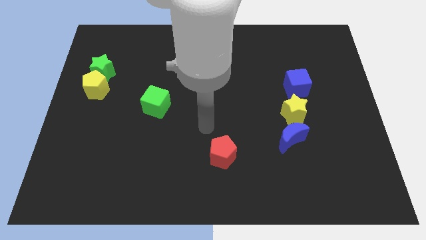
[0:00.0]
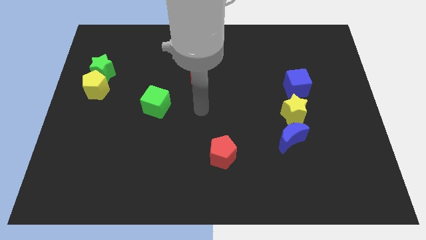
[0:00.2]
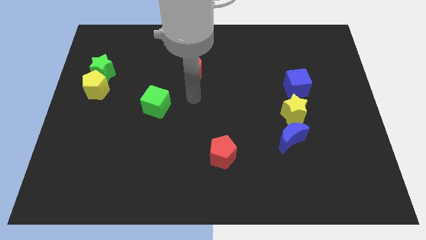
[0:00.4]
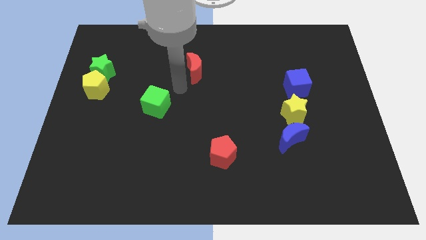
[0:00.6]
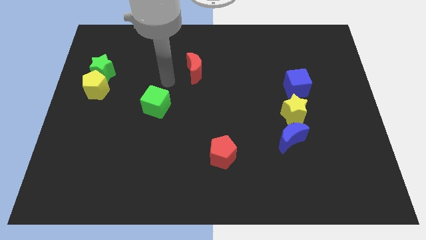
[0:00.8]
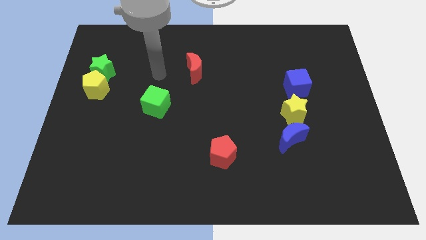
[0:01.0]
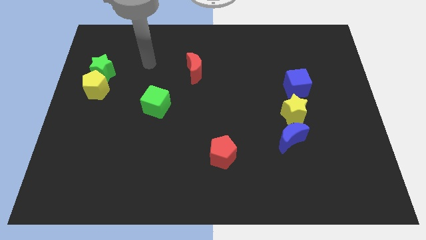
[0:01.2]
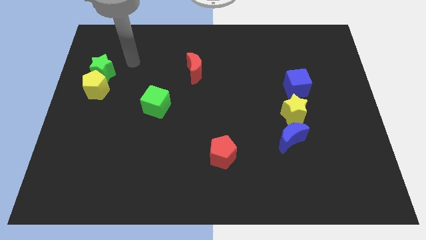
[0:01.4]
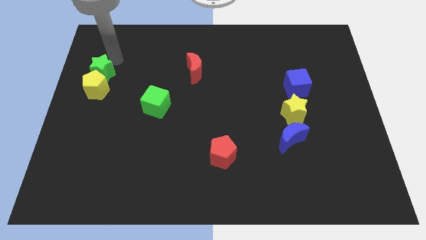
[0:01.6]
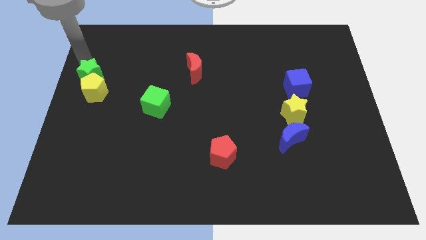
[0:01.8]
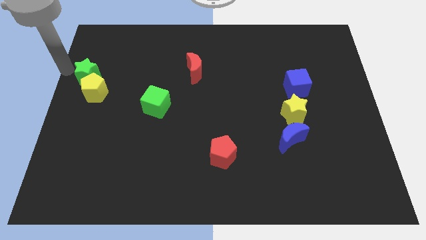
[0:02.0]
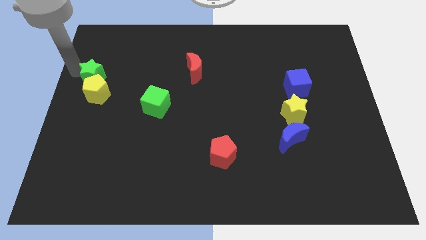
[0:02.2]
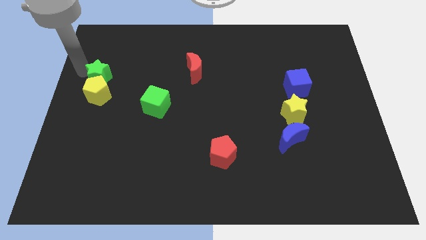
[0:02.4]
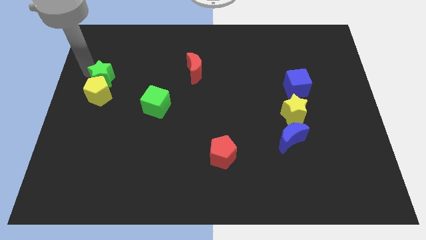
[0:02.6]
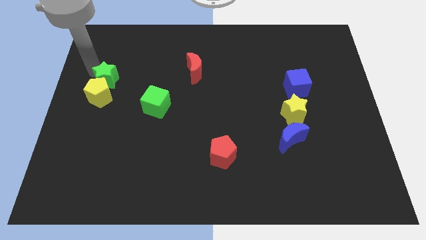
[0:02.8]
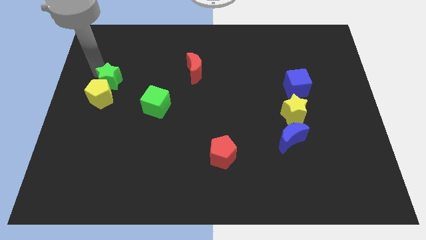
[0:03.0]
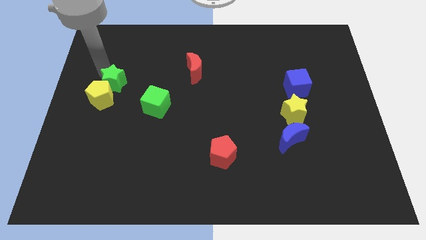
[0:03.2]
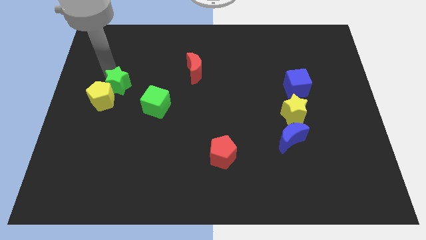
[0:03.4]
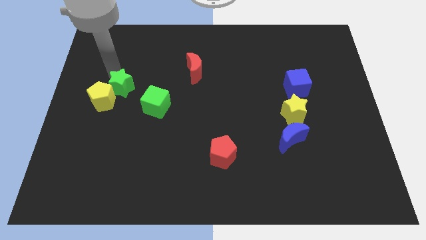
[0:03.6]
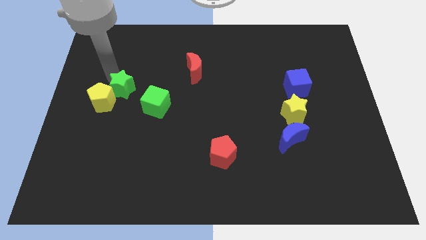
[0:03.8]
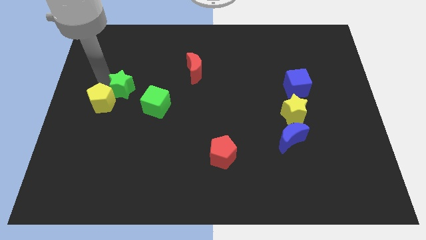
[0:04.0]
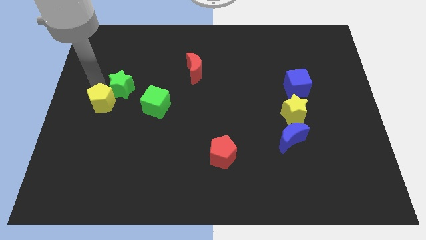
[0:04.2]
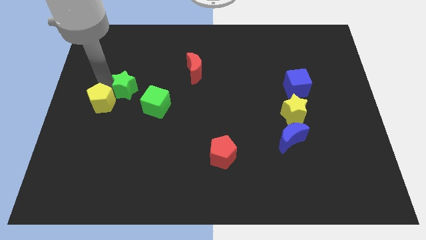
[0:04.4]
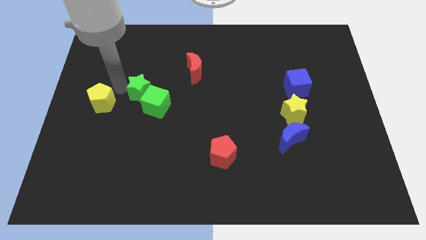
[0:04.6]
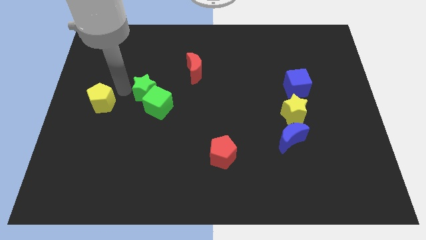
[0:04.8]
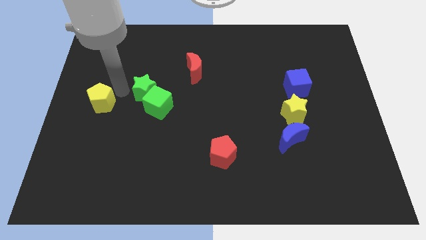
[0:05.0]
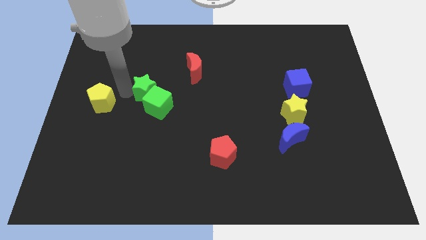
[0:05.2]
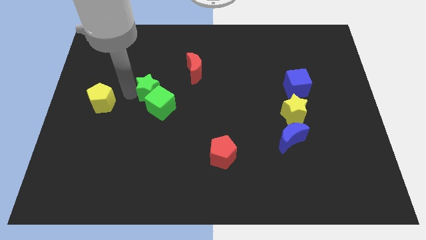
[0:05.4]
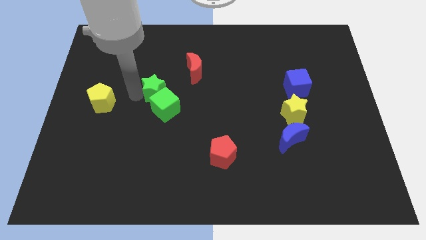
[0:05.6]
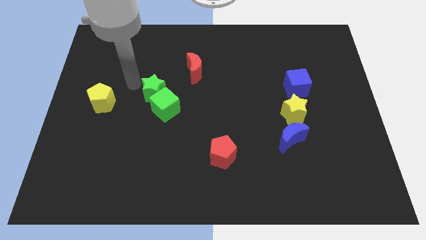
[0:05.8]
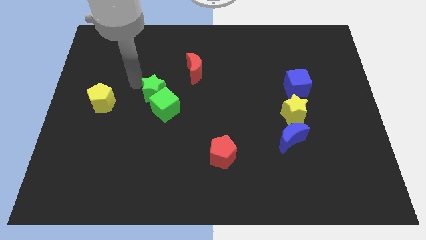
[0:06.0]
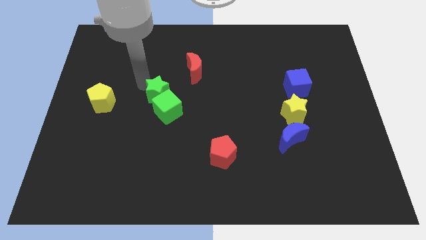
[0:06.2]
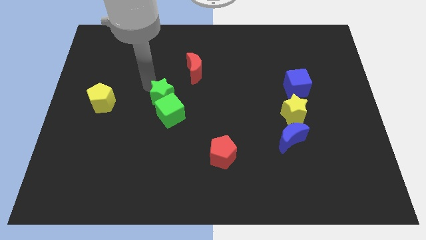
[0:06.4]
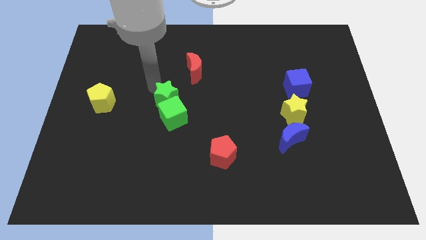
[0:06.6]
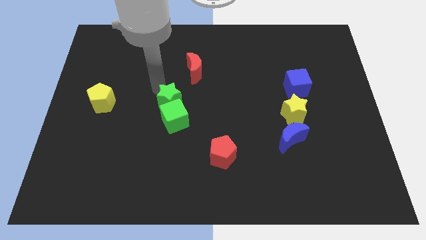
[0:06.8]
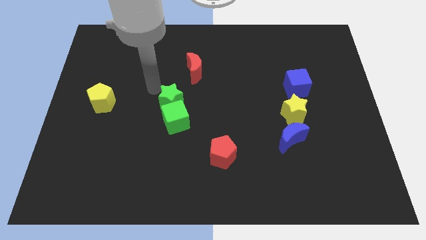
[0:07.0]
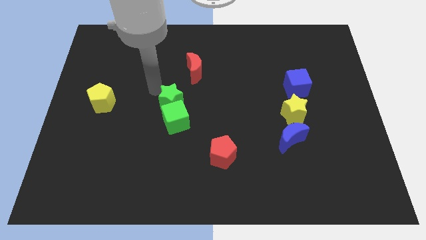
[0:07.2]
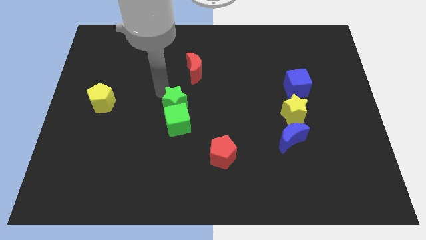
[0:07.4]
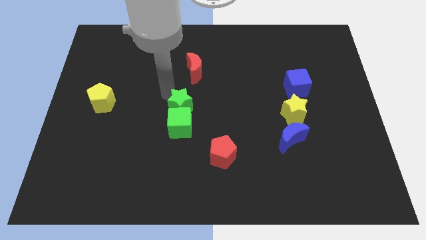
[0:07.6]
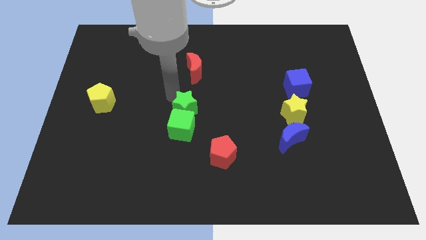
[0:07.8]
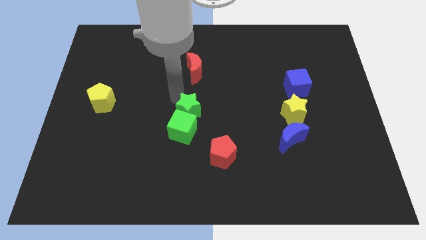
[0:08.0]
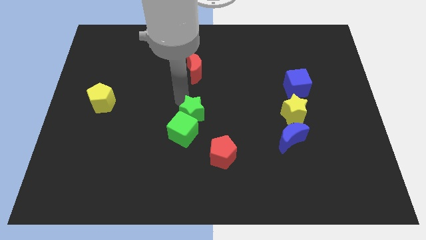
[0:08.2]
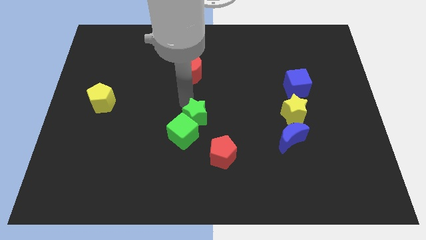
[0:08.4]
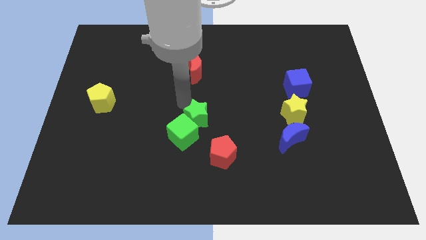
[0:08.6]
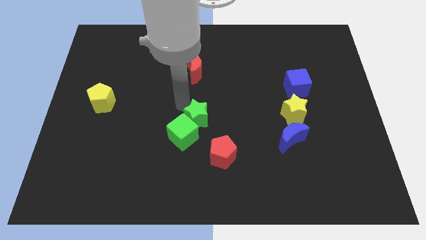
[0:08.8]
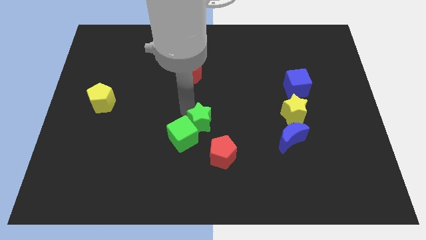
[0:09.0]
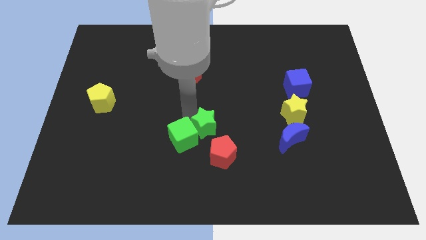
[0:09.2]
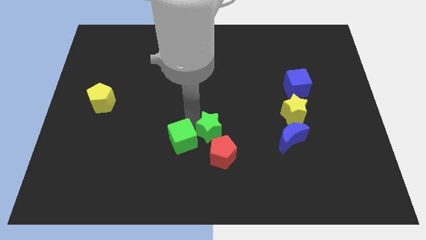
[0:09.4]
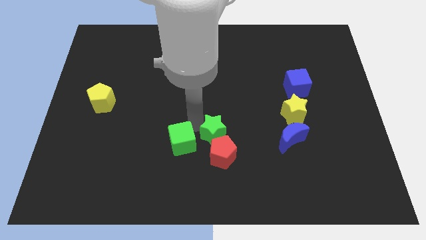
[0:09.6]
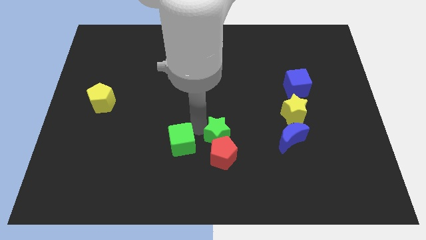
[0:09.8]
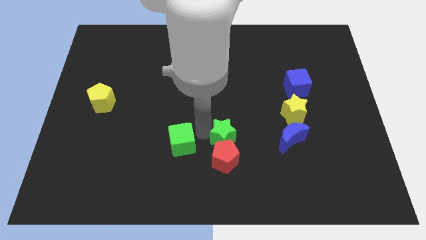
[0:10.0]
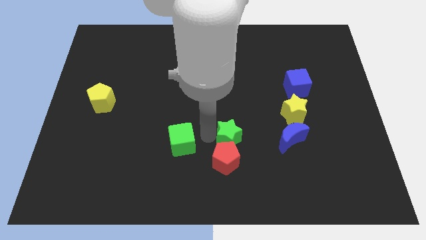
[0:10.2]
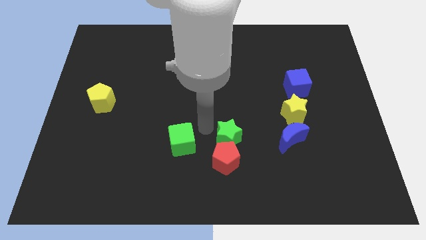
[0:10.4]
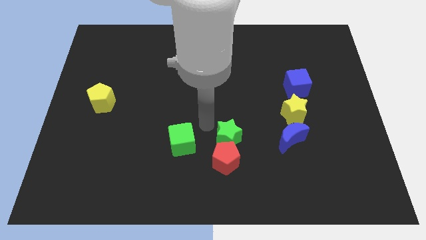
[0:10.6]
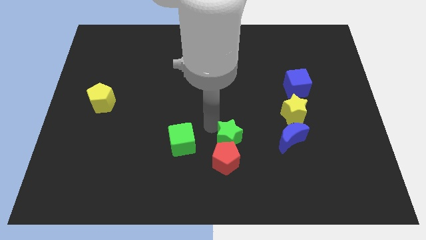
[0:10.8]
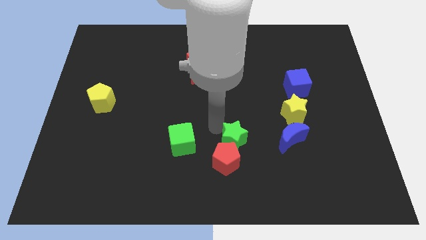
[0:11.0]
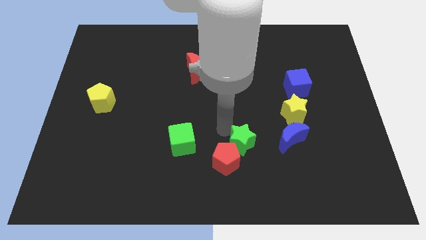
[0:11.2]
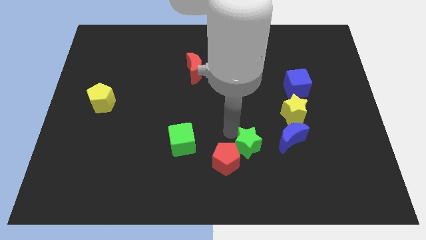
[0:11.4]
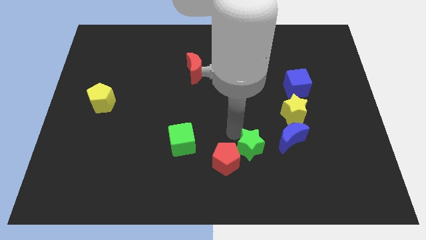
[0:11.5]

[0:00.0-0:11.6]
push the green star to the bottom left of the blue moon

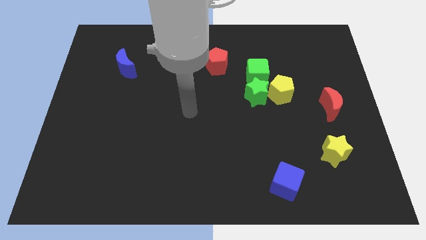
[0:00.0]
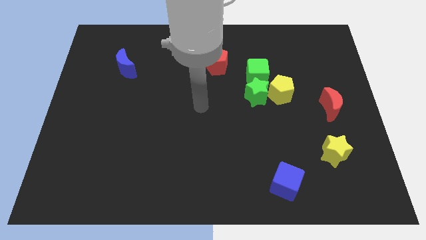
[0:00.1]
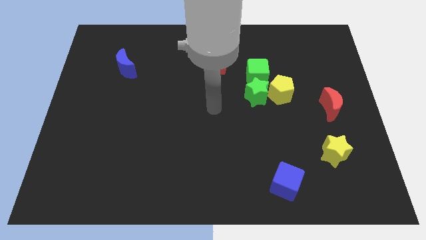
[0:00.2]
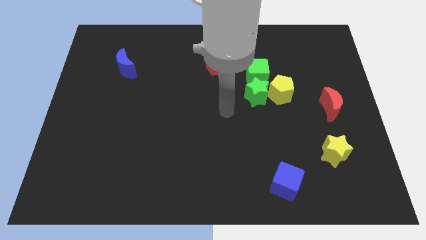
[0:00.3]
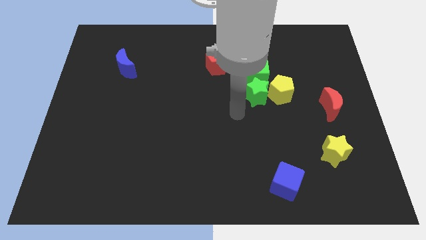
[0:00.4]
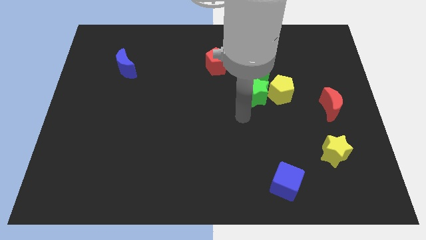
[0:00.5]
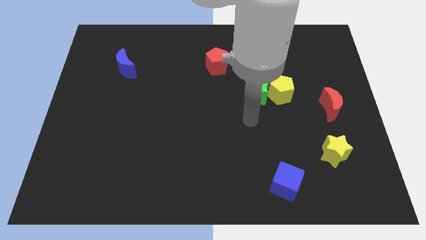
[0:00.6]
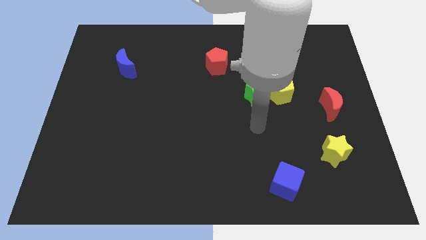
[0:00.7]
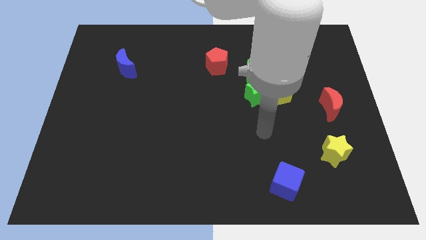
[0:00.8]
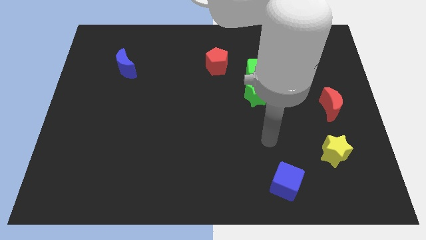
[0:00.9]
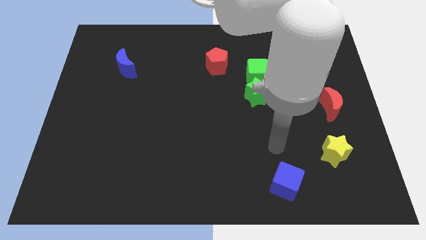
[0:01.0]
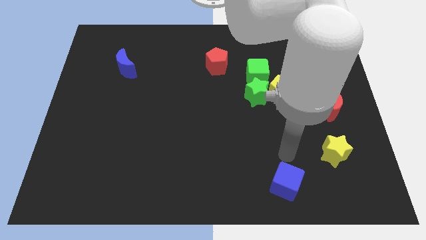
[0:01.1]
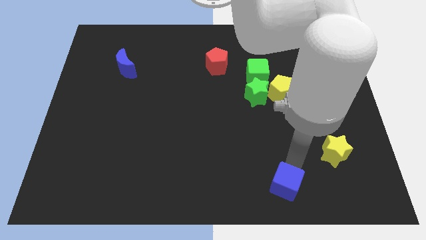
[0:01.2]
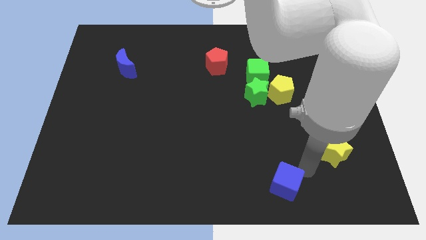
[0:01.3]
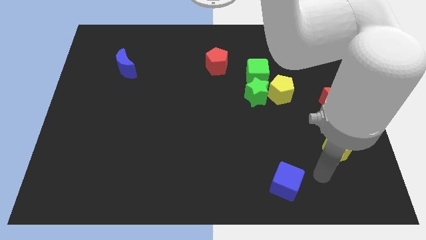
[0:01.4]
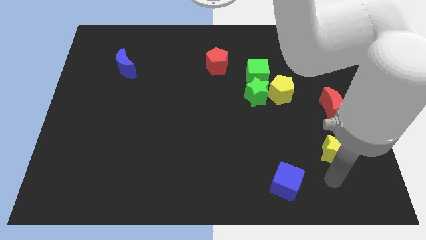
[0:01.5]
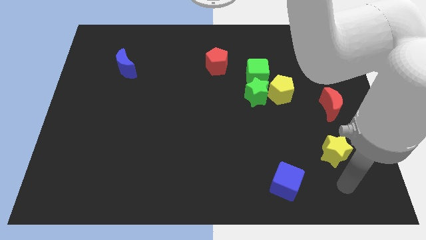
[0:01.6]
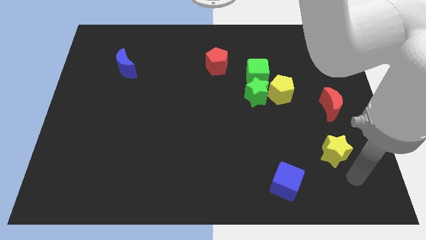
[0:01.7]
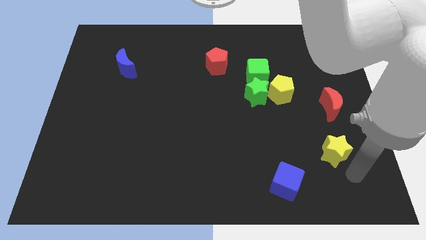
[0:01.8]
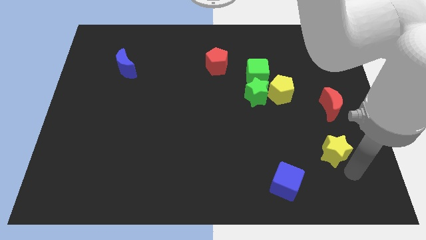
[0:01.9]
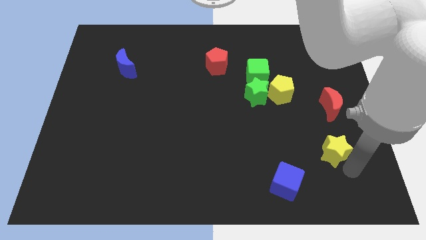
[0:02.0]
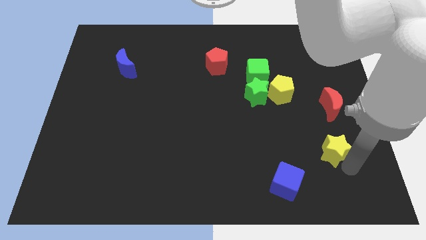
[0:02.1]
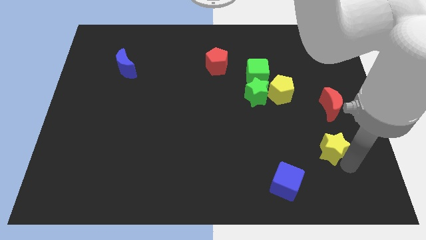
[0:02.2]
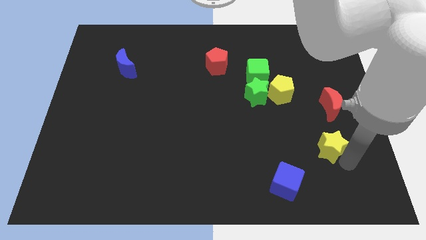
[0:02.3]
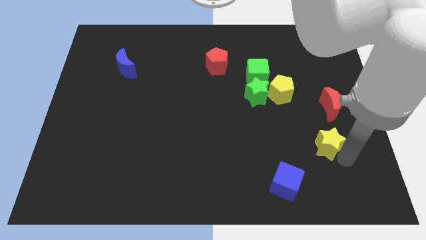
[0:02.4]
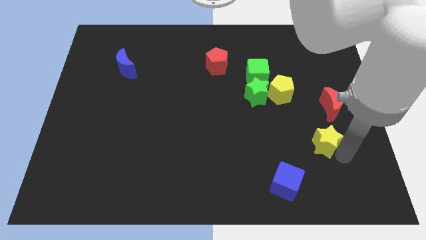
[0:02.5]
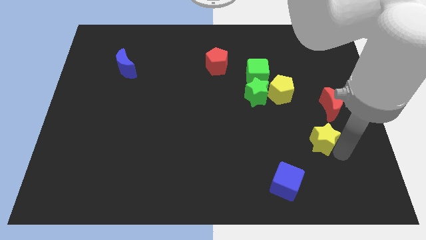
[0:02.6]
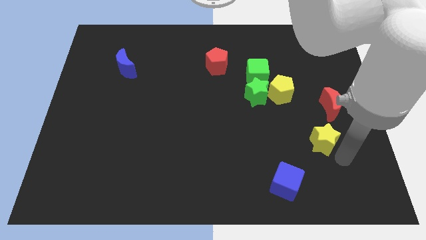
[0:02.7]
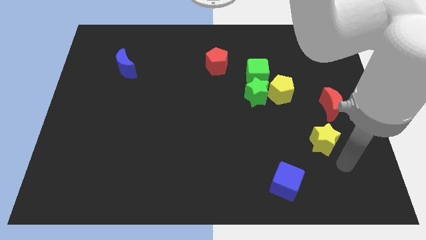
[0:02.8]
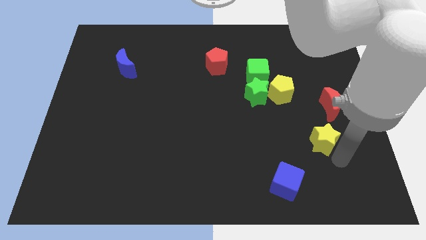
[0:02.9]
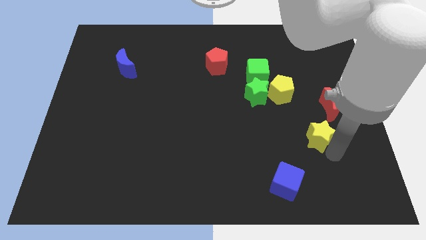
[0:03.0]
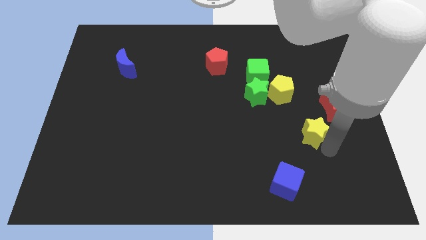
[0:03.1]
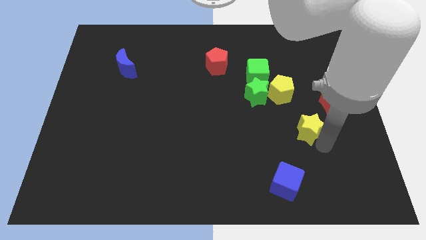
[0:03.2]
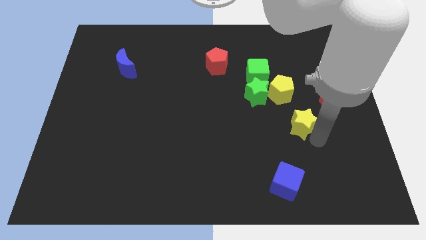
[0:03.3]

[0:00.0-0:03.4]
push the yellow star diagonally down and to the right of the green star
